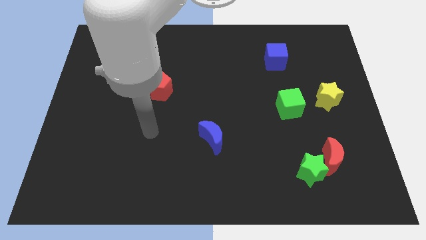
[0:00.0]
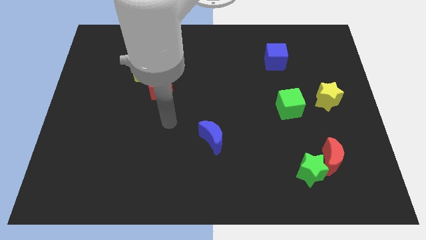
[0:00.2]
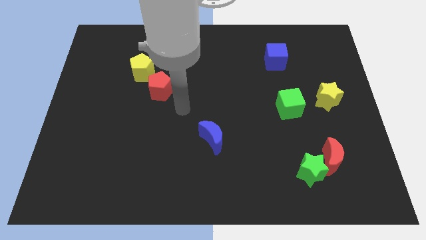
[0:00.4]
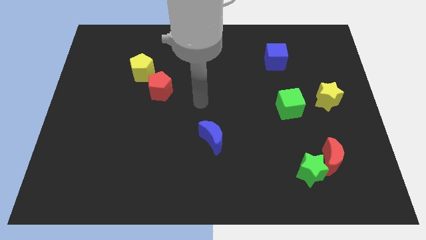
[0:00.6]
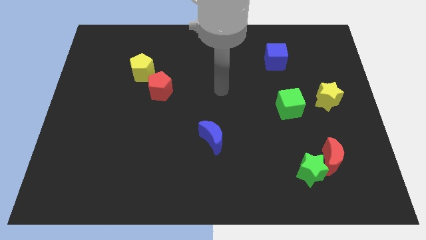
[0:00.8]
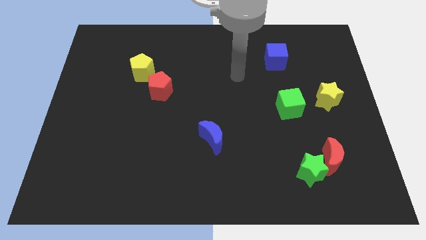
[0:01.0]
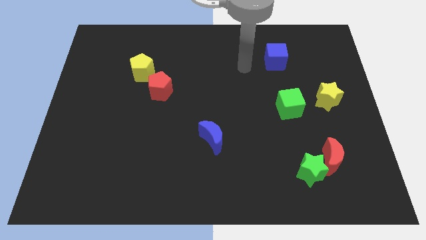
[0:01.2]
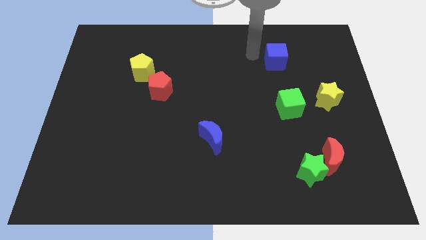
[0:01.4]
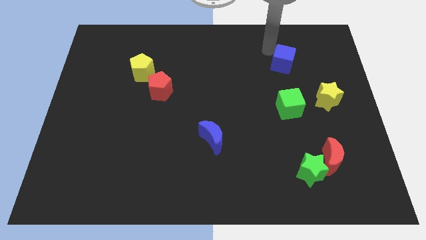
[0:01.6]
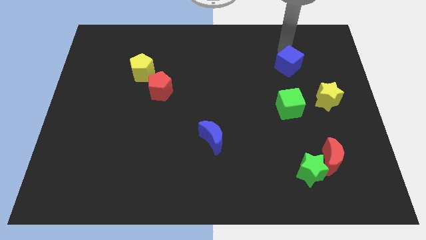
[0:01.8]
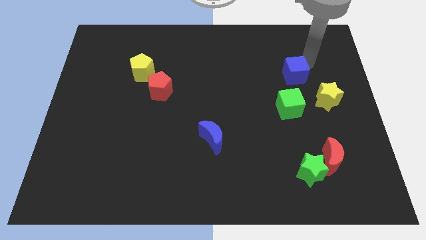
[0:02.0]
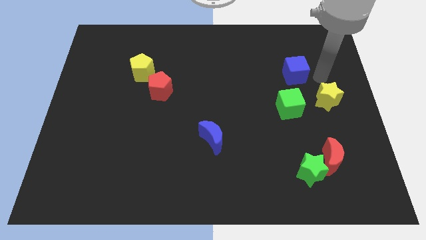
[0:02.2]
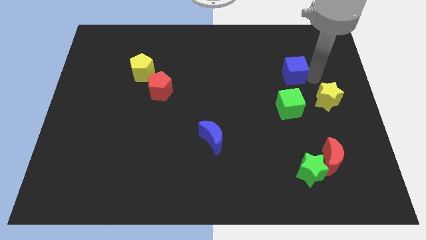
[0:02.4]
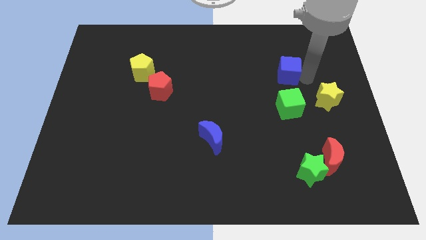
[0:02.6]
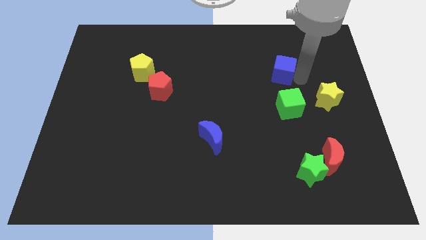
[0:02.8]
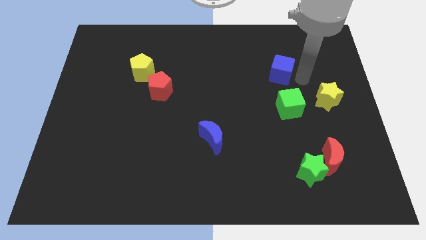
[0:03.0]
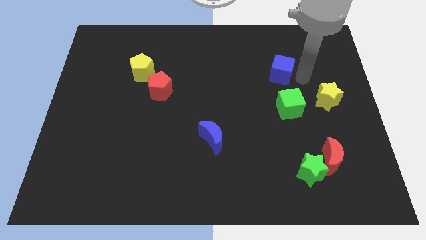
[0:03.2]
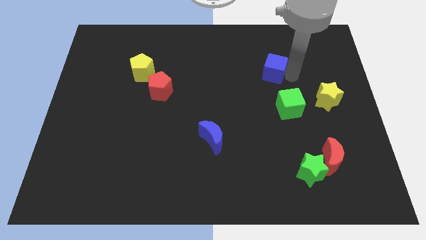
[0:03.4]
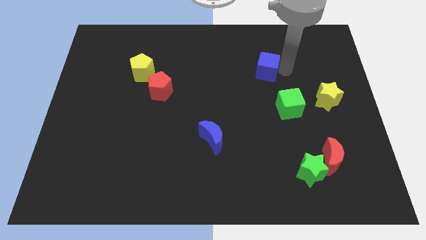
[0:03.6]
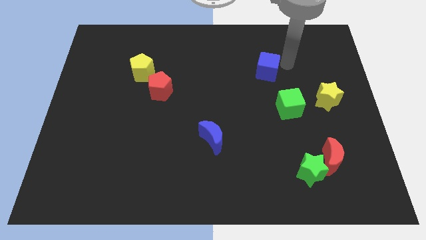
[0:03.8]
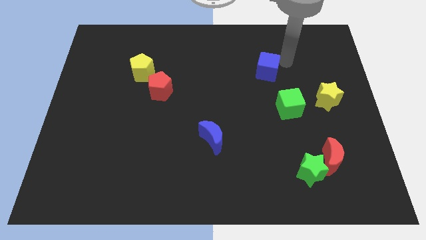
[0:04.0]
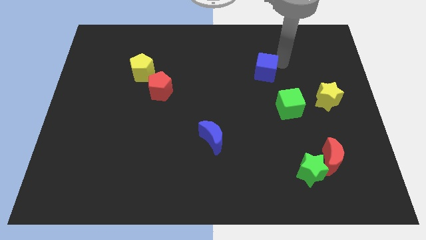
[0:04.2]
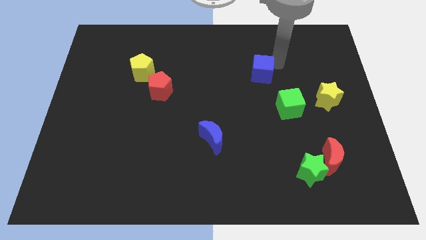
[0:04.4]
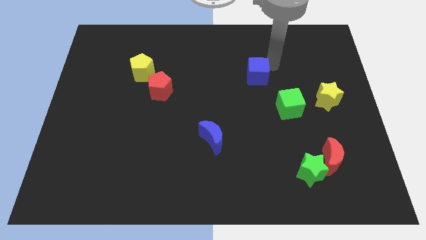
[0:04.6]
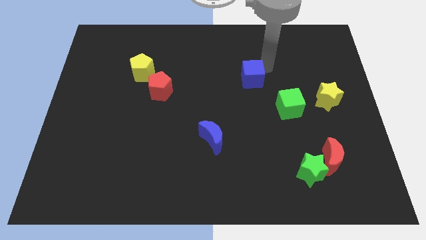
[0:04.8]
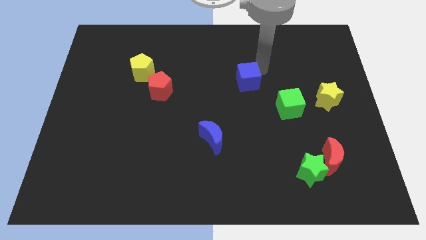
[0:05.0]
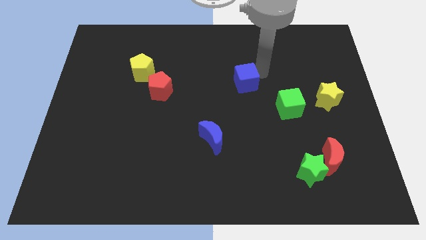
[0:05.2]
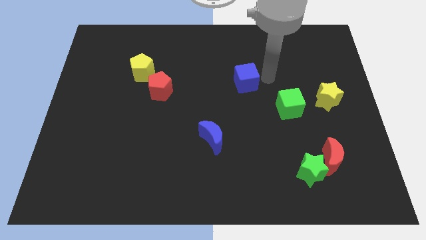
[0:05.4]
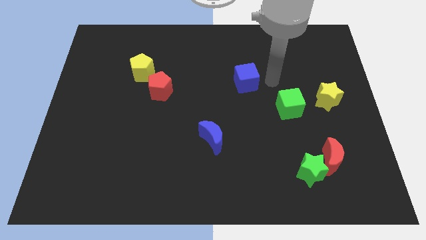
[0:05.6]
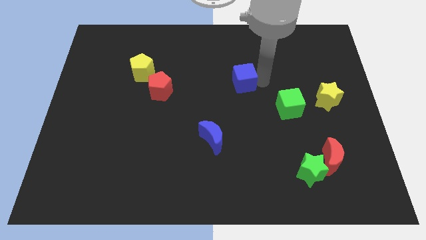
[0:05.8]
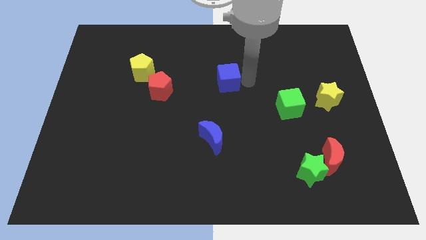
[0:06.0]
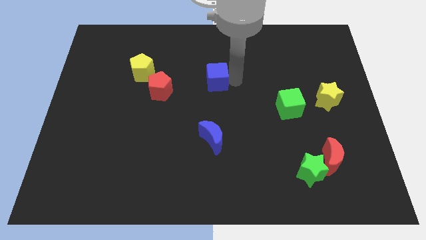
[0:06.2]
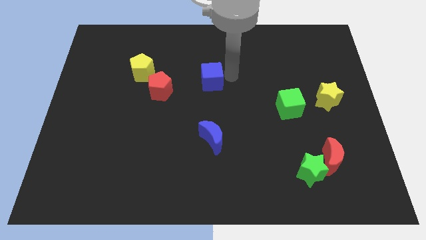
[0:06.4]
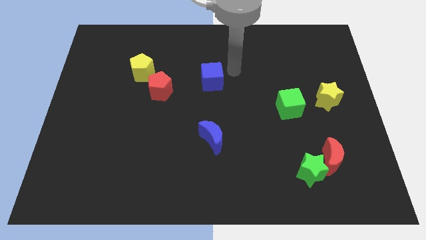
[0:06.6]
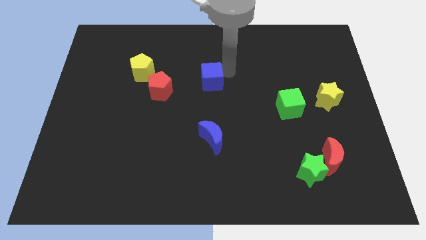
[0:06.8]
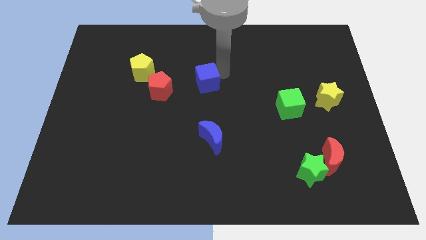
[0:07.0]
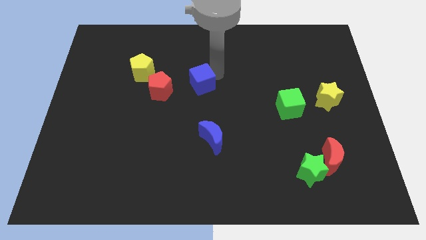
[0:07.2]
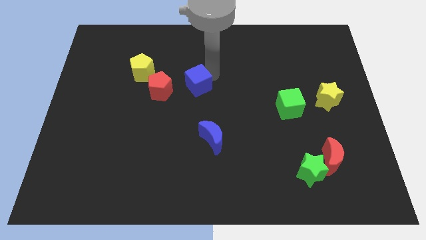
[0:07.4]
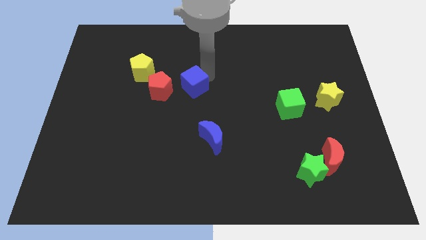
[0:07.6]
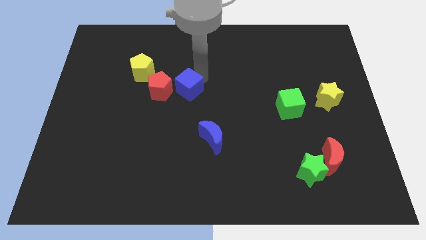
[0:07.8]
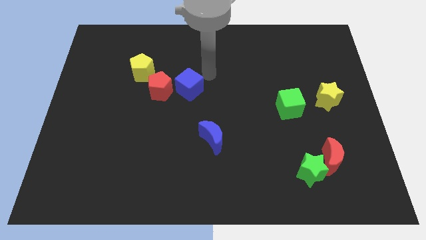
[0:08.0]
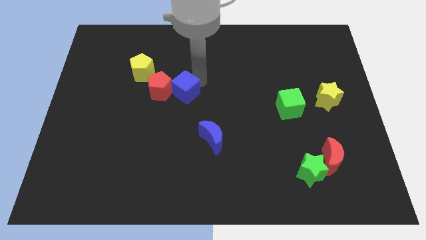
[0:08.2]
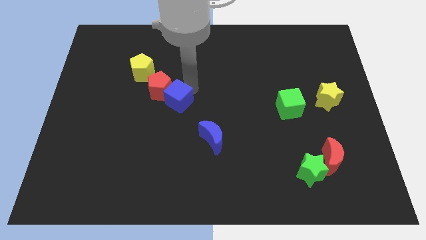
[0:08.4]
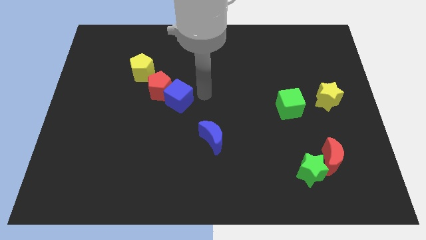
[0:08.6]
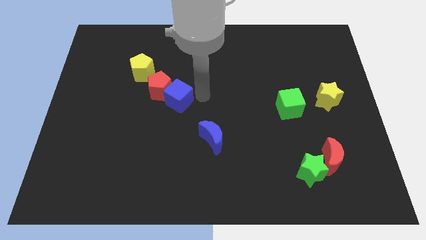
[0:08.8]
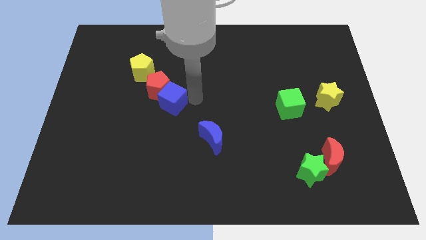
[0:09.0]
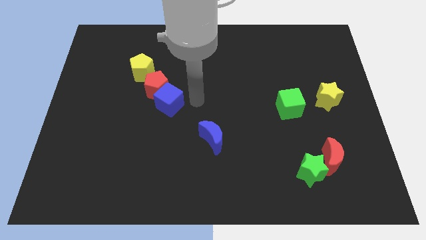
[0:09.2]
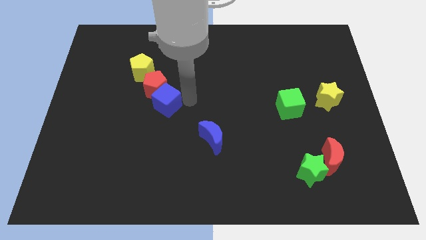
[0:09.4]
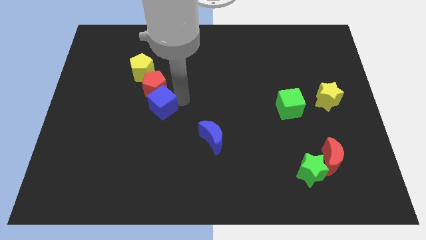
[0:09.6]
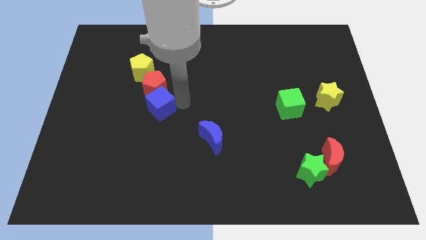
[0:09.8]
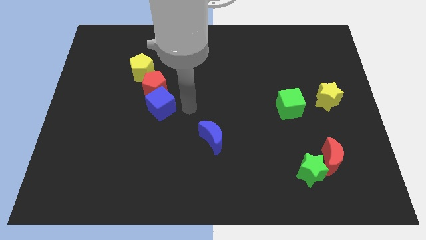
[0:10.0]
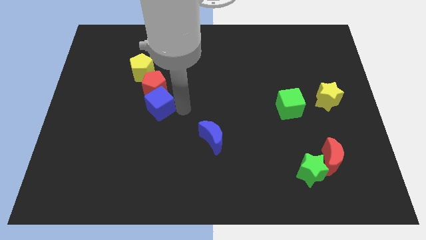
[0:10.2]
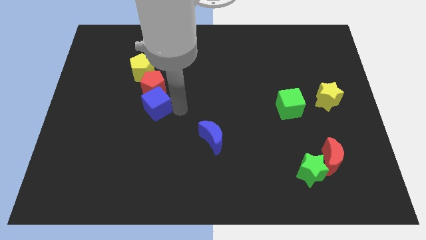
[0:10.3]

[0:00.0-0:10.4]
slide the blue cube diagonally down and to the left of the red pentagon

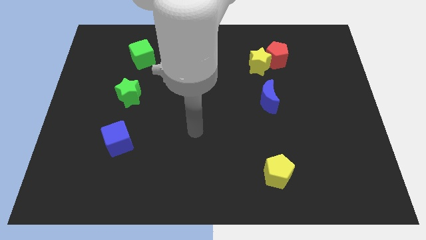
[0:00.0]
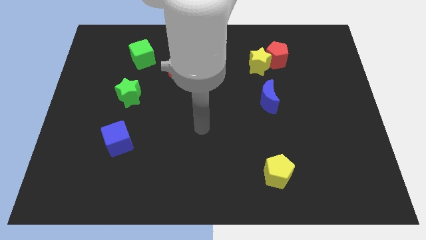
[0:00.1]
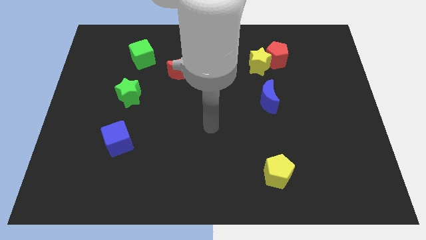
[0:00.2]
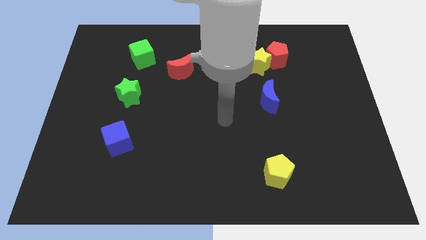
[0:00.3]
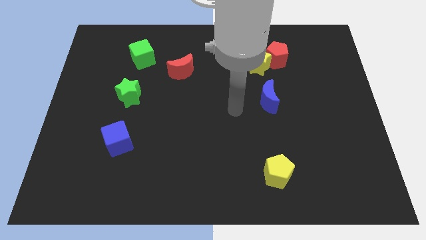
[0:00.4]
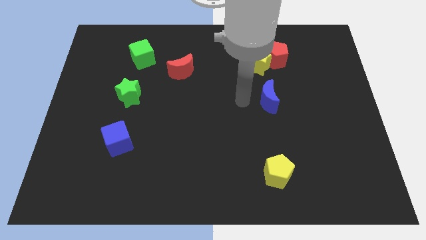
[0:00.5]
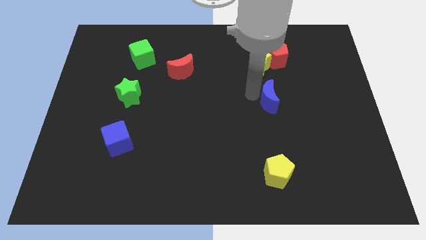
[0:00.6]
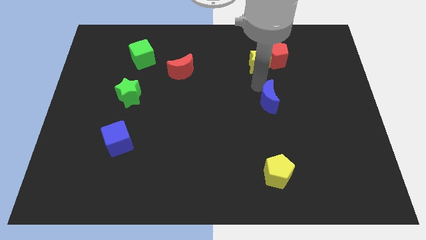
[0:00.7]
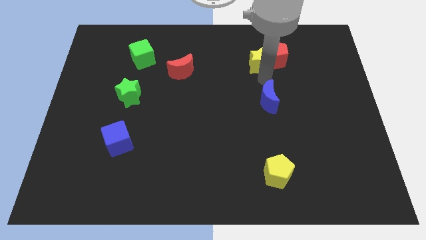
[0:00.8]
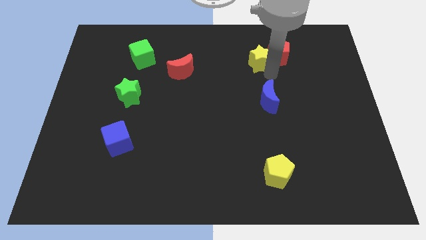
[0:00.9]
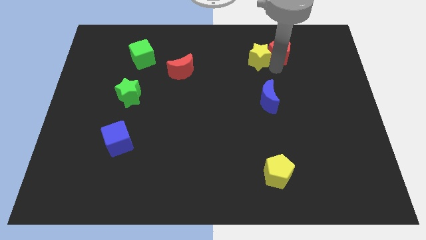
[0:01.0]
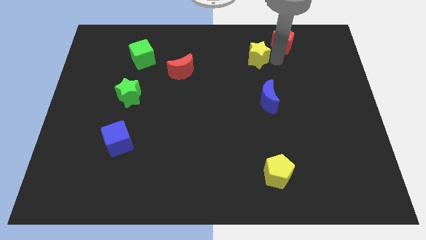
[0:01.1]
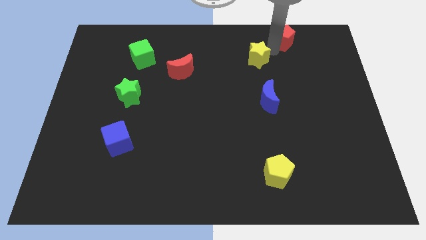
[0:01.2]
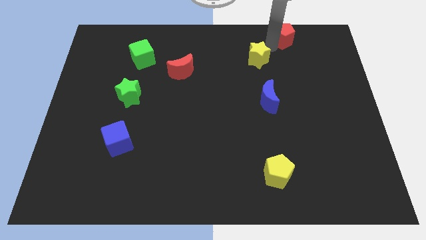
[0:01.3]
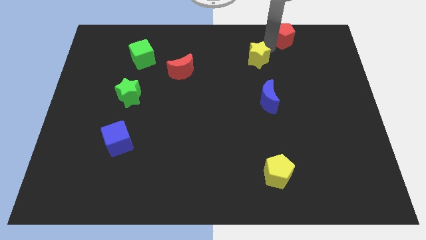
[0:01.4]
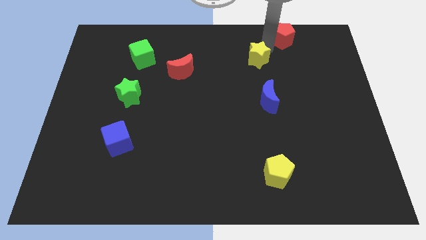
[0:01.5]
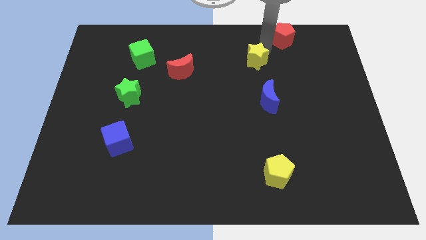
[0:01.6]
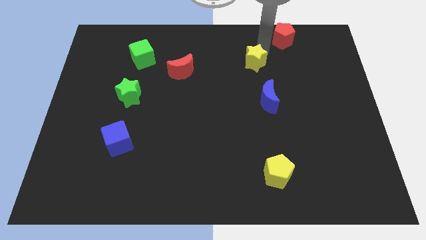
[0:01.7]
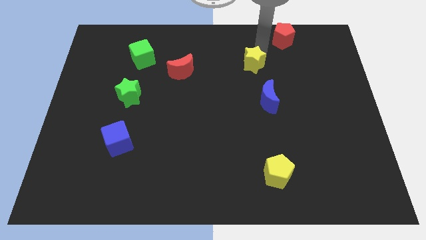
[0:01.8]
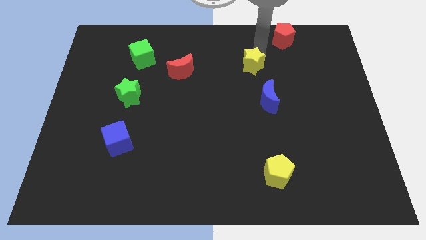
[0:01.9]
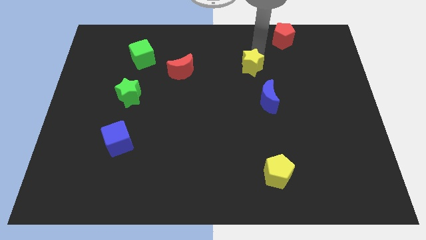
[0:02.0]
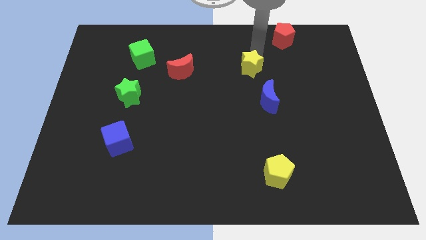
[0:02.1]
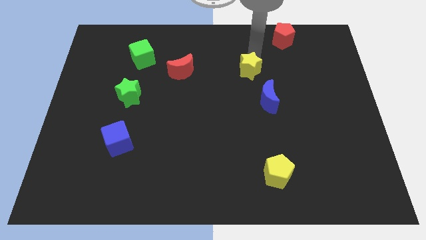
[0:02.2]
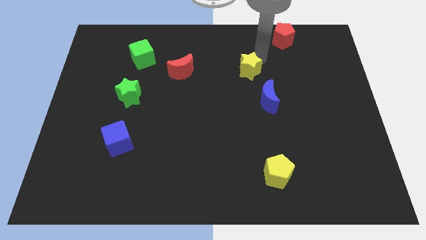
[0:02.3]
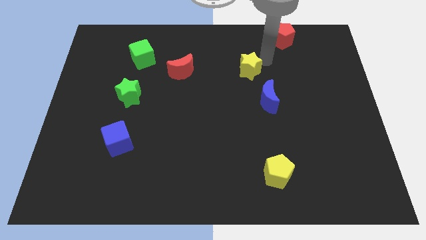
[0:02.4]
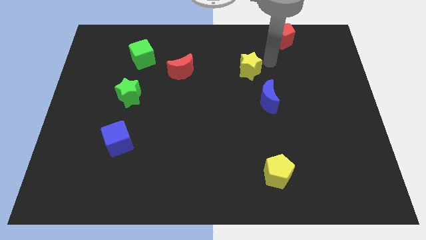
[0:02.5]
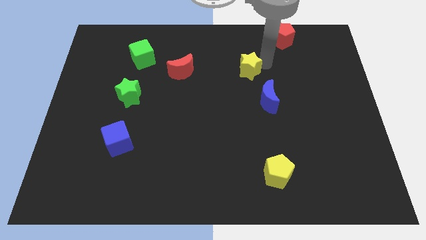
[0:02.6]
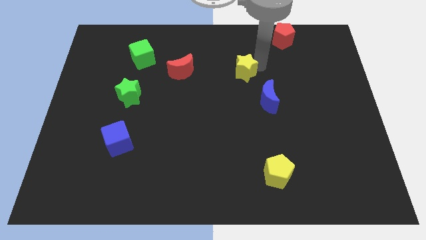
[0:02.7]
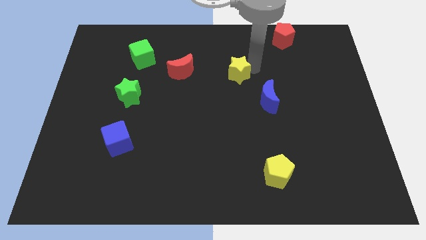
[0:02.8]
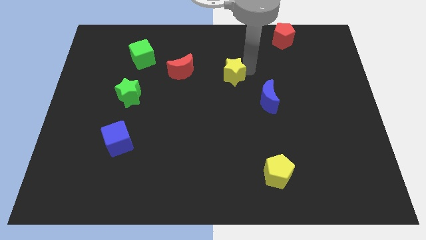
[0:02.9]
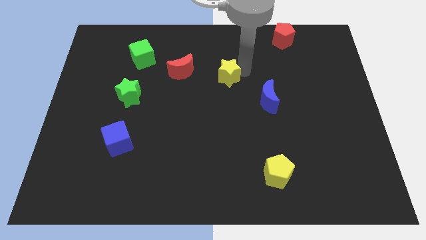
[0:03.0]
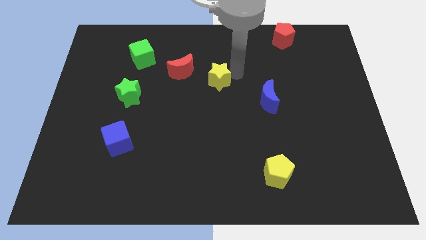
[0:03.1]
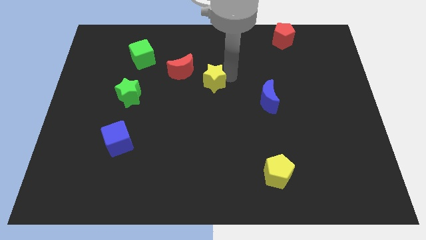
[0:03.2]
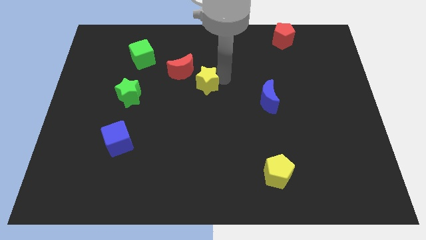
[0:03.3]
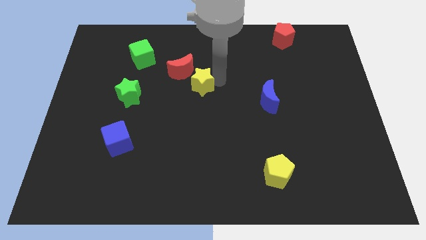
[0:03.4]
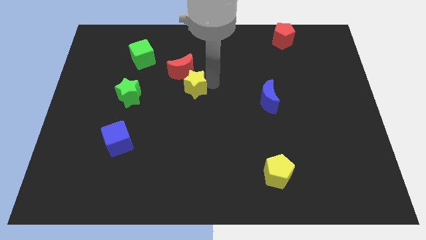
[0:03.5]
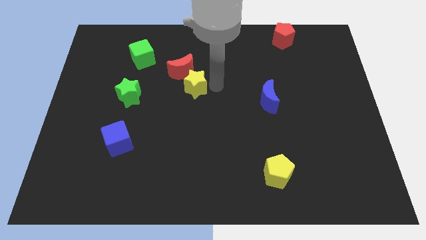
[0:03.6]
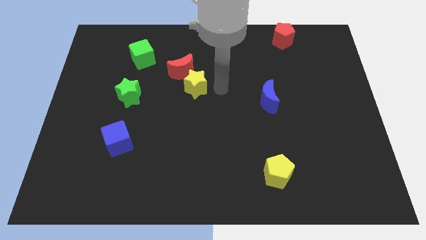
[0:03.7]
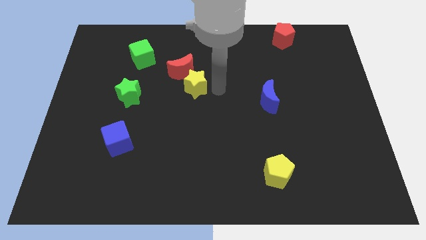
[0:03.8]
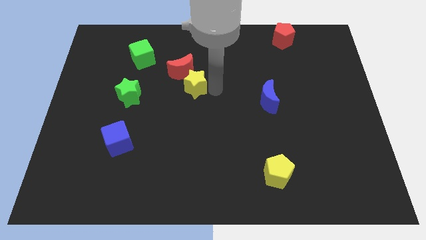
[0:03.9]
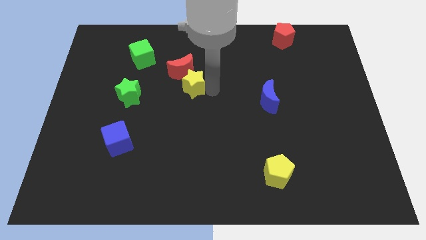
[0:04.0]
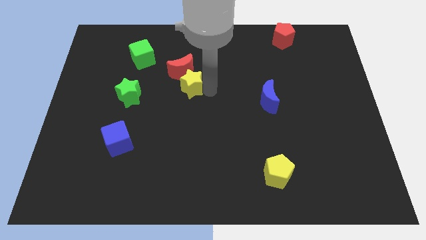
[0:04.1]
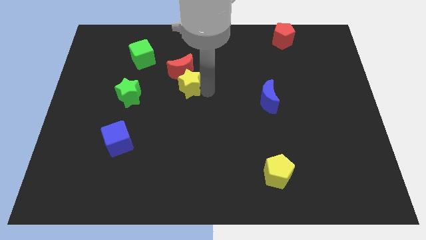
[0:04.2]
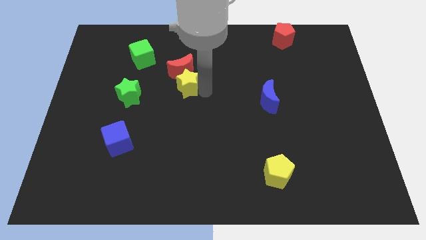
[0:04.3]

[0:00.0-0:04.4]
move the yellow star to the bottom left side of the red moon
